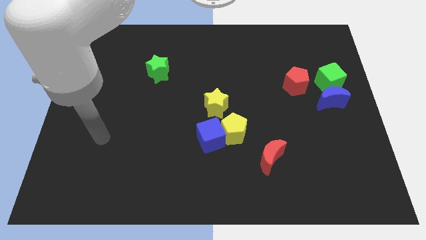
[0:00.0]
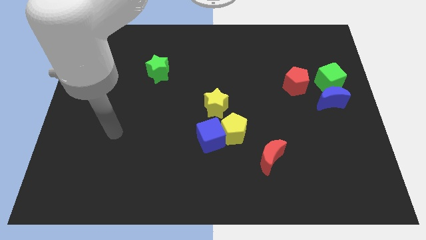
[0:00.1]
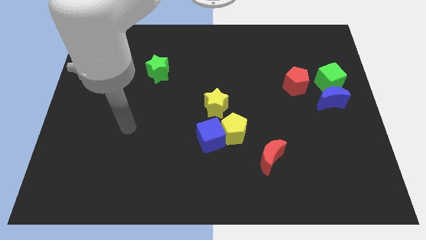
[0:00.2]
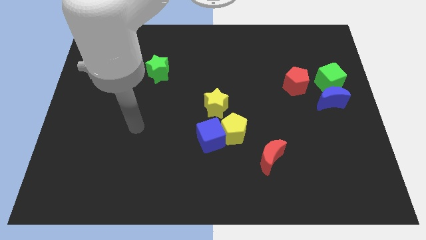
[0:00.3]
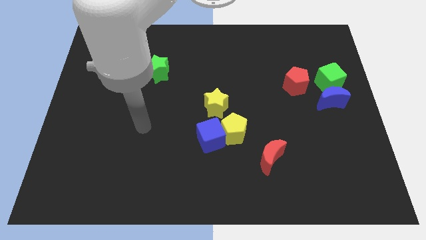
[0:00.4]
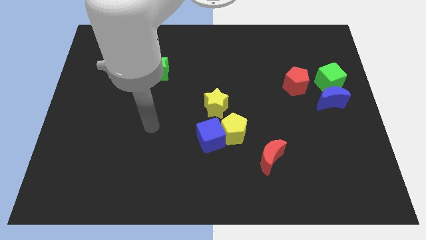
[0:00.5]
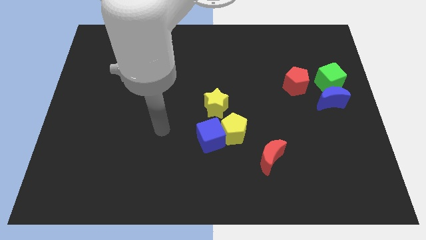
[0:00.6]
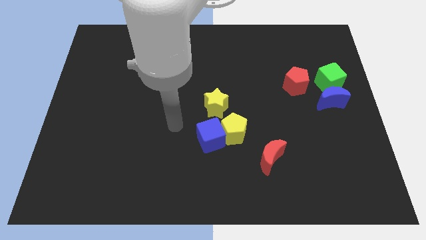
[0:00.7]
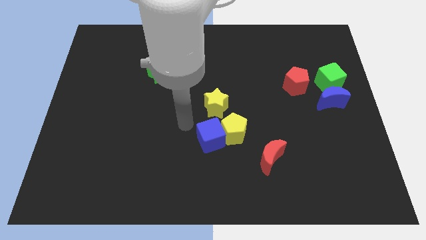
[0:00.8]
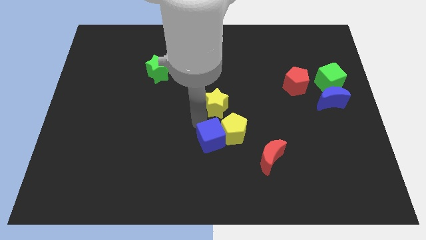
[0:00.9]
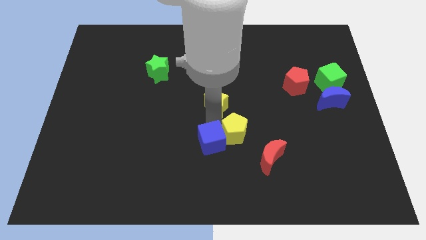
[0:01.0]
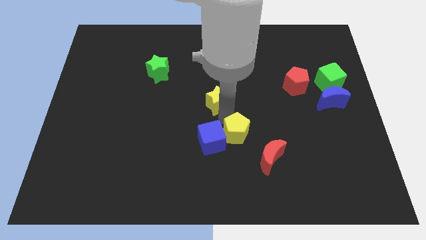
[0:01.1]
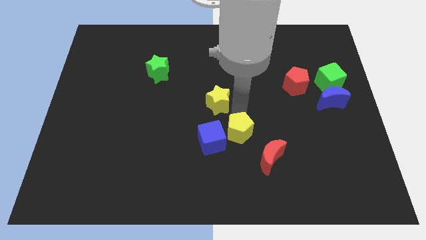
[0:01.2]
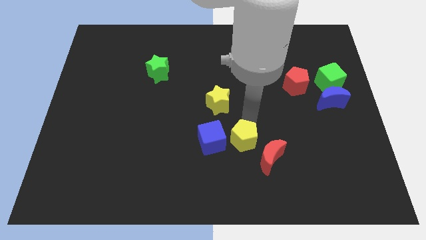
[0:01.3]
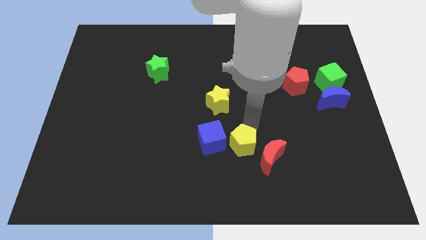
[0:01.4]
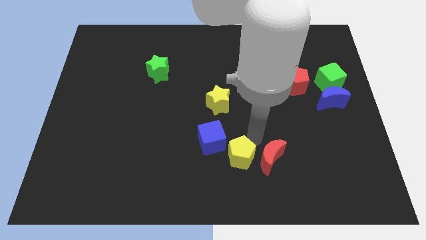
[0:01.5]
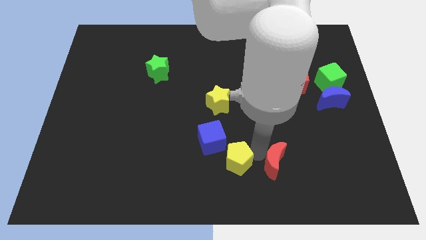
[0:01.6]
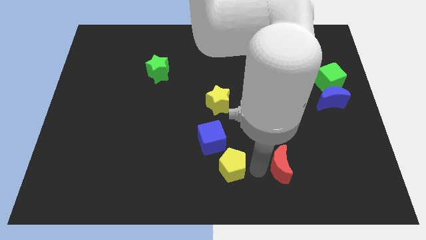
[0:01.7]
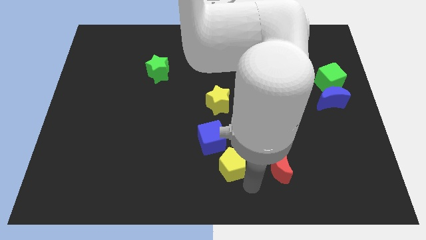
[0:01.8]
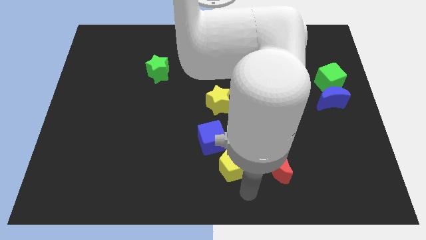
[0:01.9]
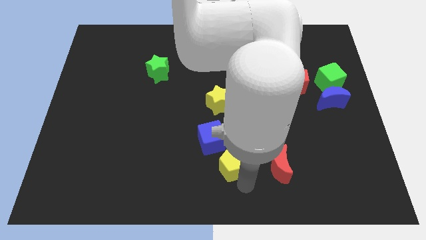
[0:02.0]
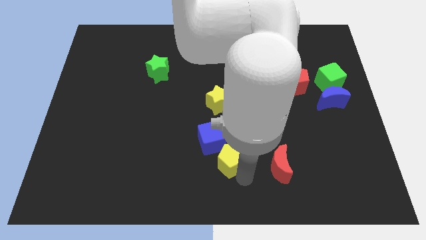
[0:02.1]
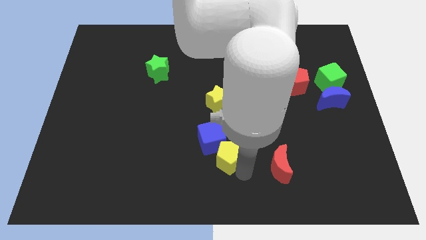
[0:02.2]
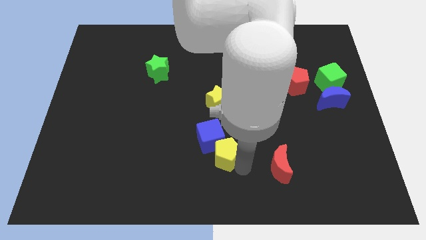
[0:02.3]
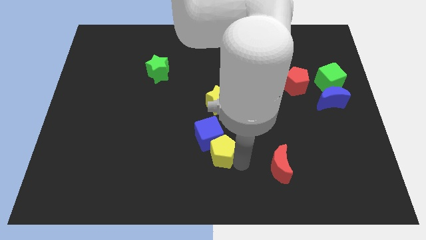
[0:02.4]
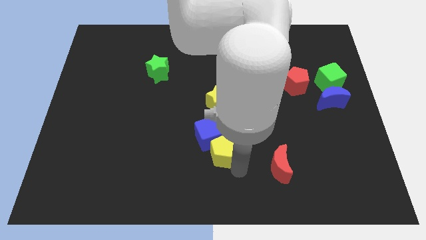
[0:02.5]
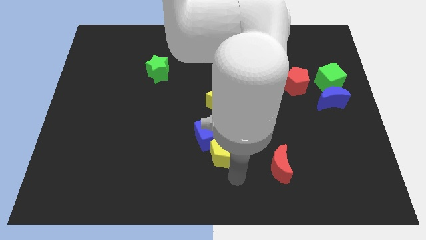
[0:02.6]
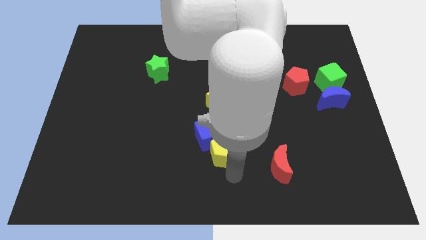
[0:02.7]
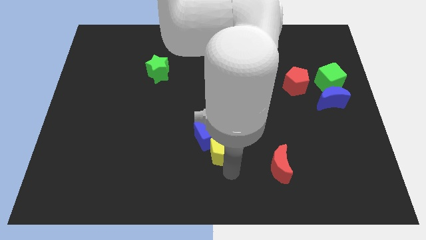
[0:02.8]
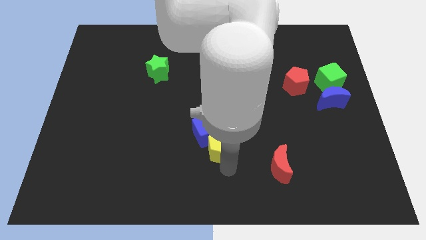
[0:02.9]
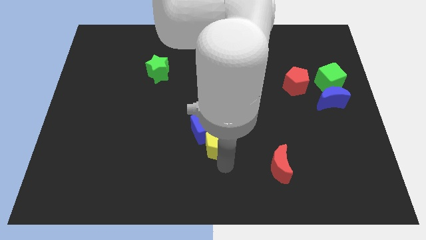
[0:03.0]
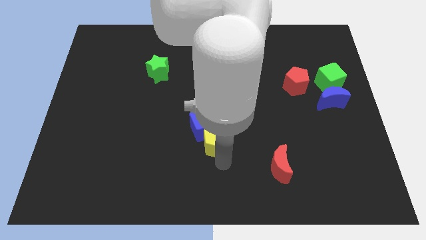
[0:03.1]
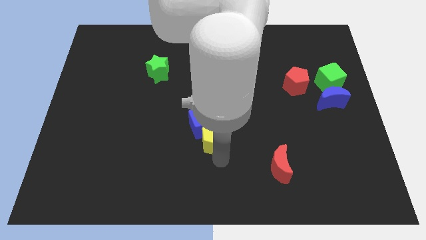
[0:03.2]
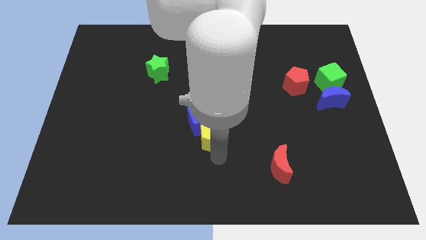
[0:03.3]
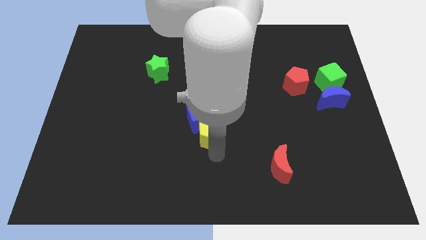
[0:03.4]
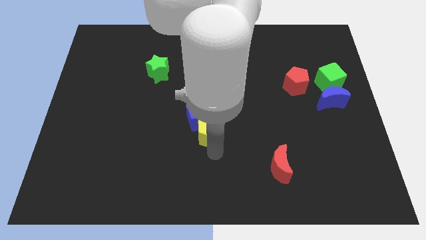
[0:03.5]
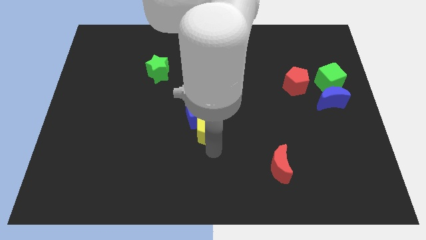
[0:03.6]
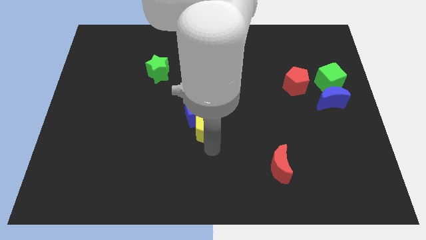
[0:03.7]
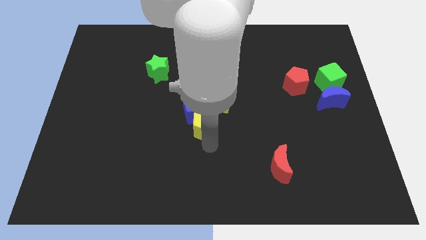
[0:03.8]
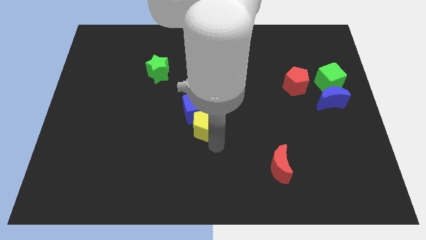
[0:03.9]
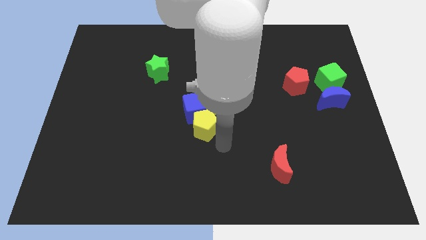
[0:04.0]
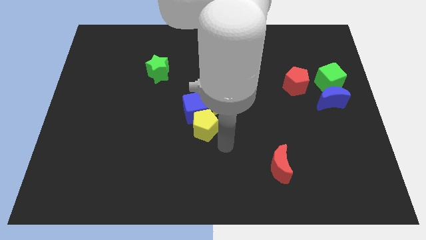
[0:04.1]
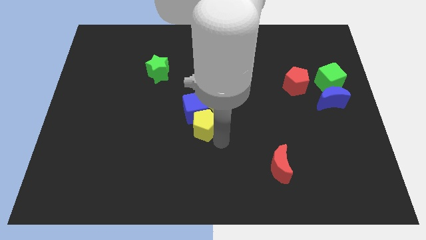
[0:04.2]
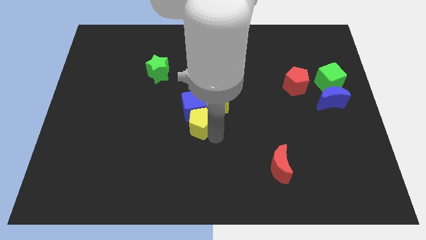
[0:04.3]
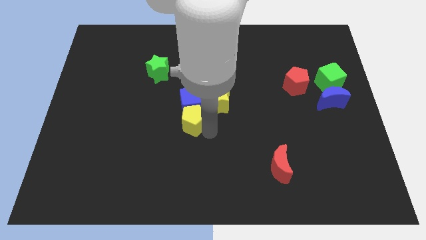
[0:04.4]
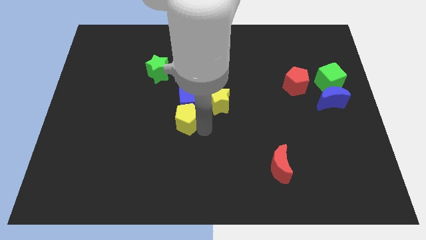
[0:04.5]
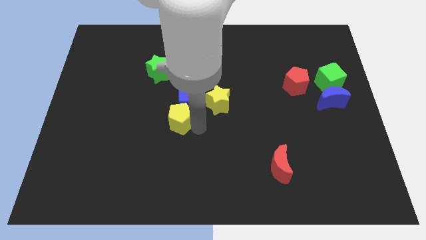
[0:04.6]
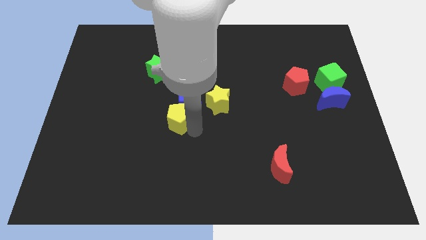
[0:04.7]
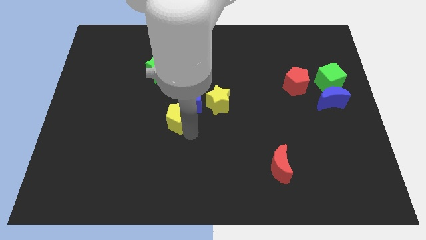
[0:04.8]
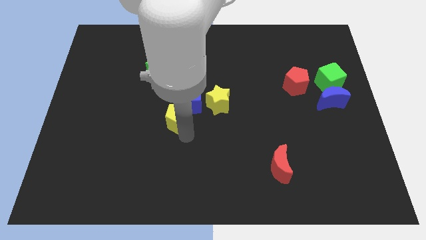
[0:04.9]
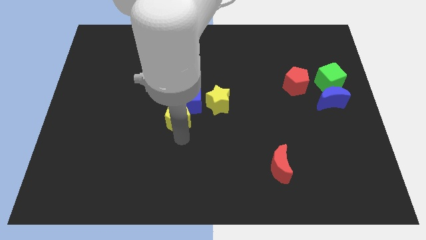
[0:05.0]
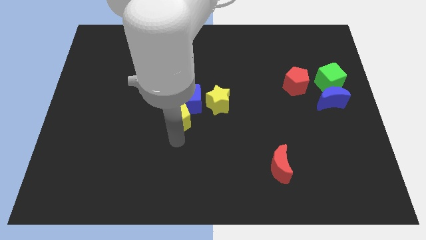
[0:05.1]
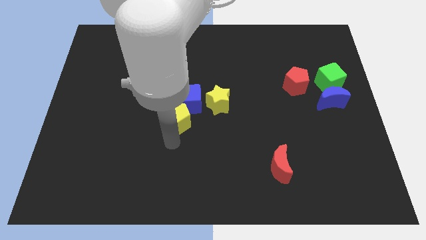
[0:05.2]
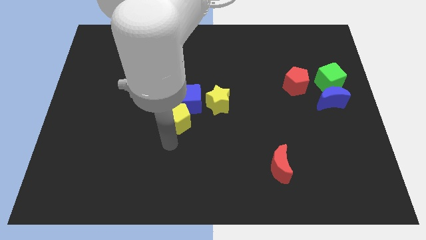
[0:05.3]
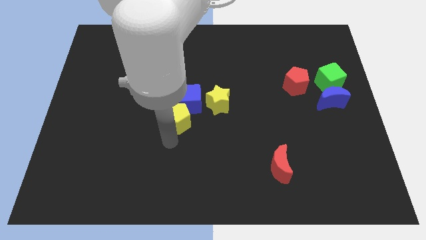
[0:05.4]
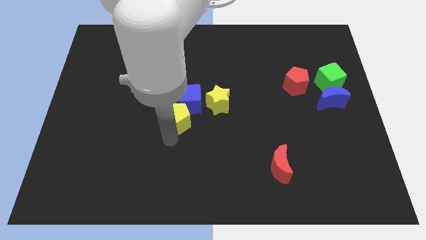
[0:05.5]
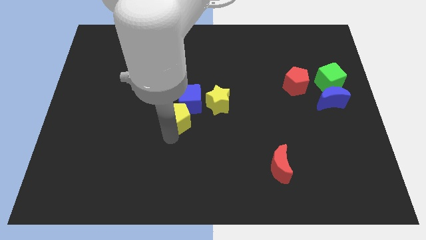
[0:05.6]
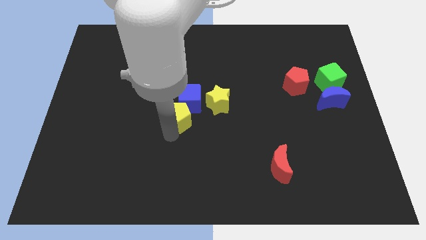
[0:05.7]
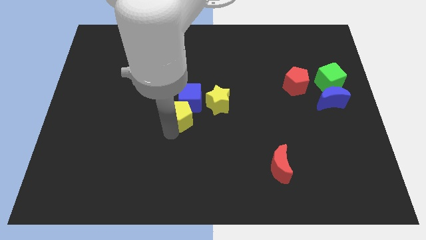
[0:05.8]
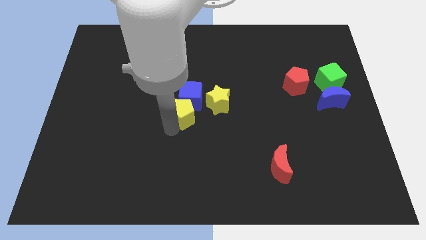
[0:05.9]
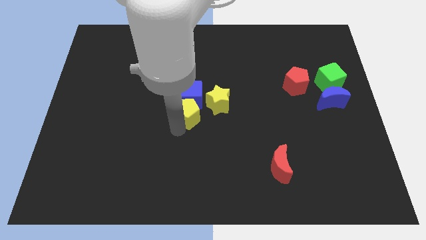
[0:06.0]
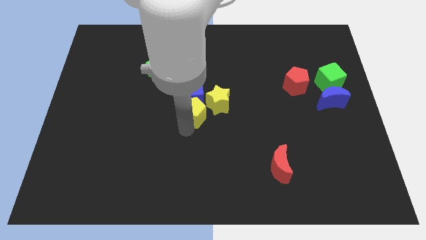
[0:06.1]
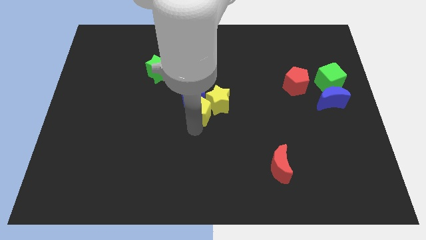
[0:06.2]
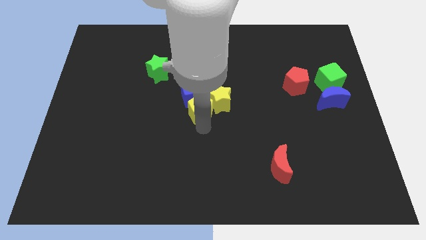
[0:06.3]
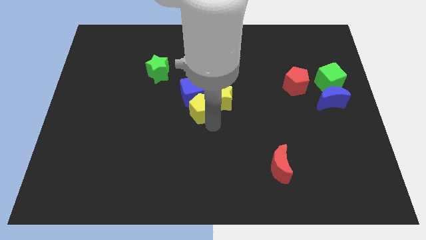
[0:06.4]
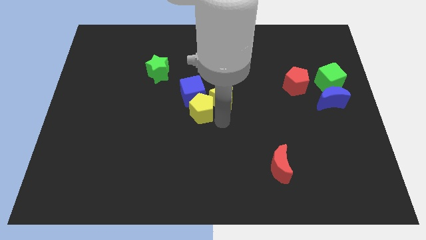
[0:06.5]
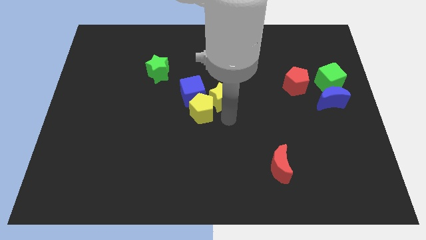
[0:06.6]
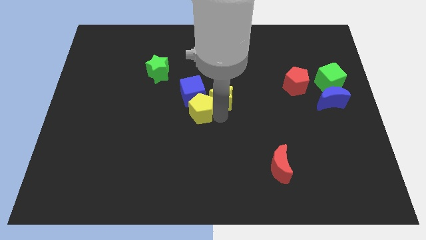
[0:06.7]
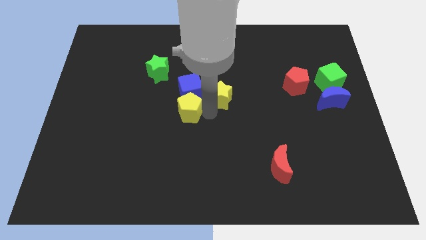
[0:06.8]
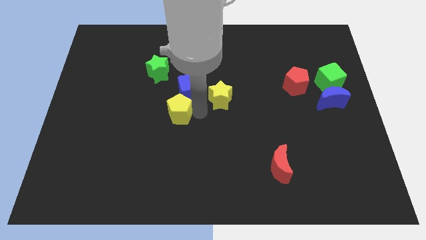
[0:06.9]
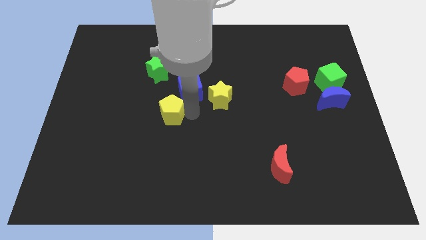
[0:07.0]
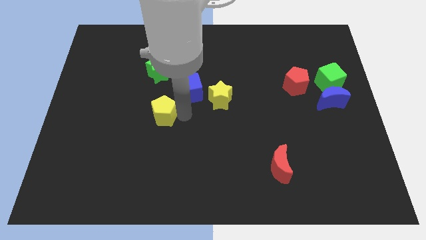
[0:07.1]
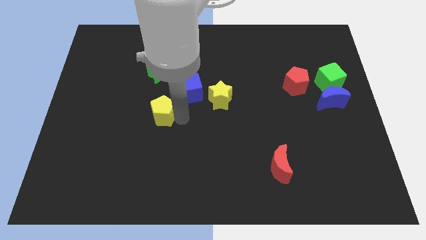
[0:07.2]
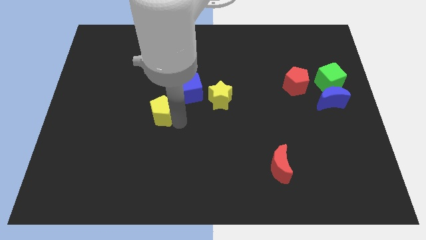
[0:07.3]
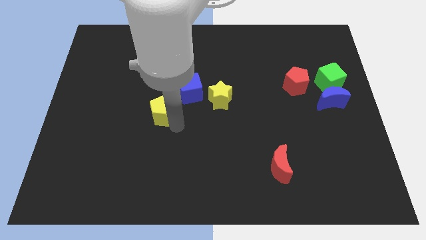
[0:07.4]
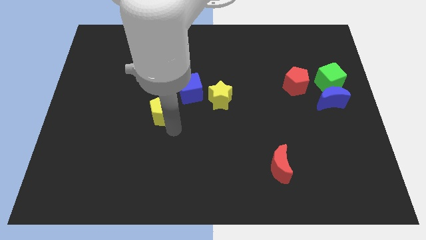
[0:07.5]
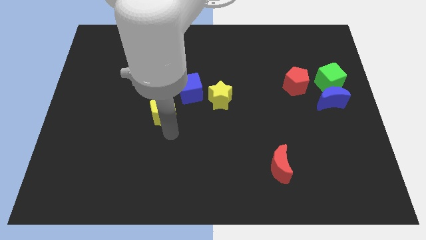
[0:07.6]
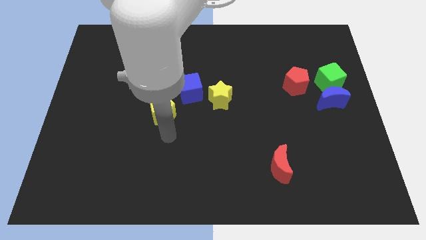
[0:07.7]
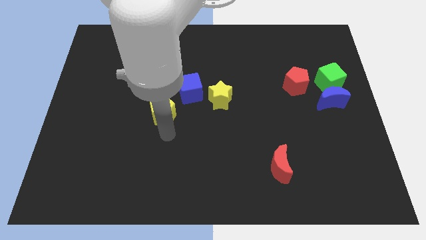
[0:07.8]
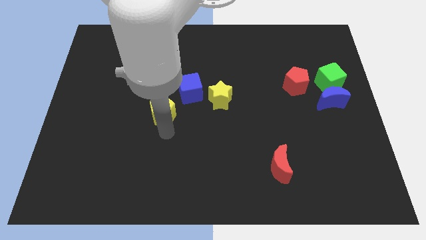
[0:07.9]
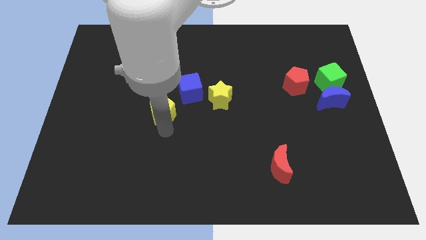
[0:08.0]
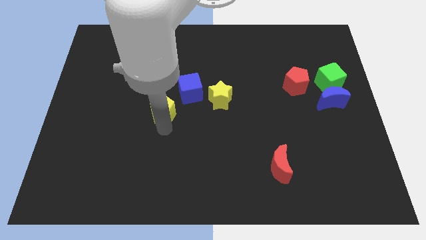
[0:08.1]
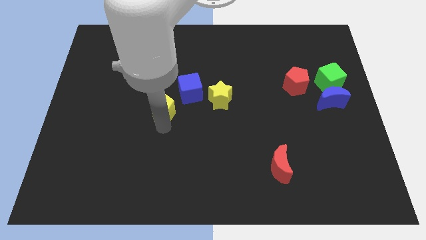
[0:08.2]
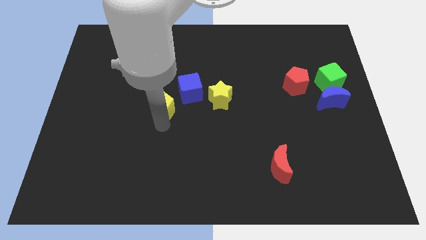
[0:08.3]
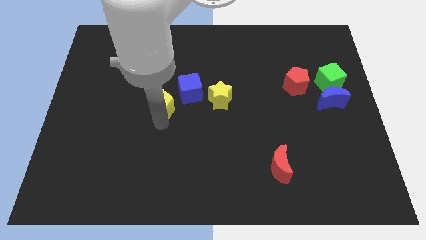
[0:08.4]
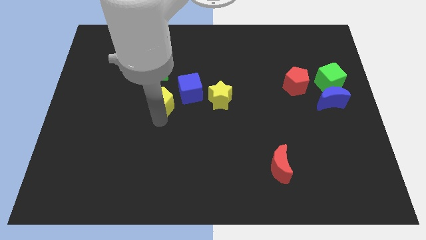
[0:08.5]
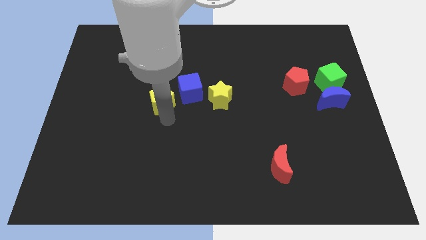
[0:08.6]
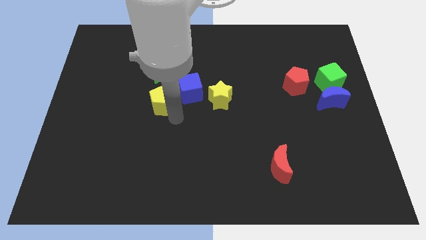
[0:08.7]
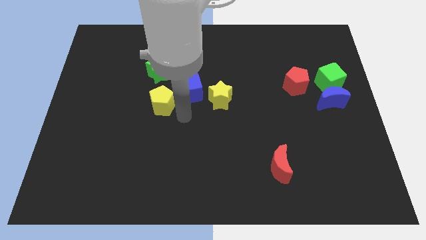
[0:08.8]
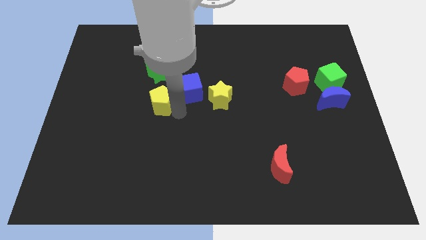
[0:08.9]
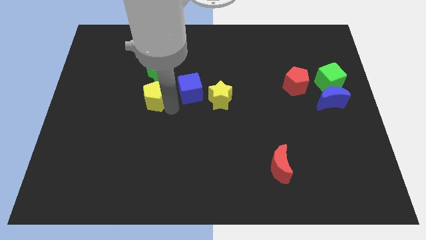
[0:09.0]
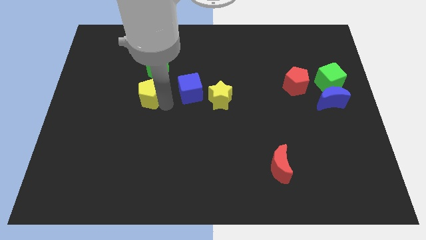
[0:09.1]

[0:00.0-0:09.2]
put the yellow pentagon diagonally down and to the left of the green star
